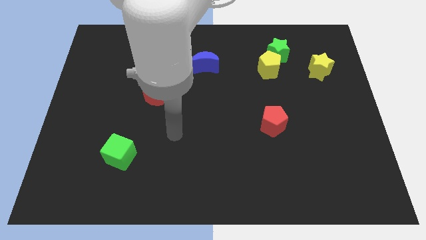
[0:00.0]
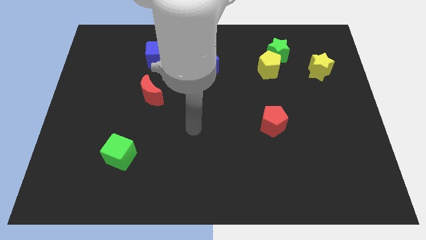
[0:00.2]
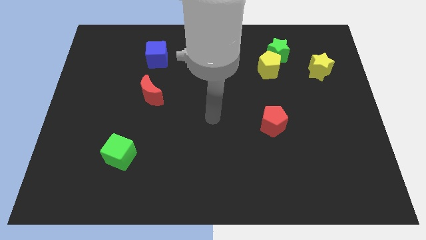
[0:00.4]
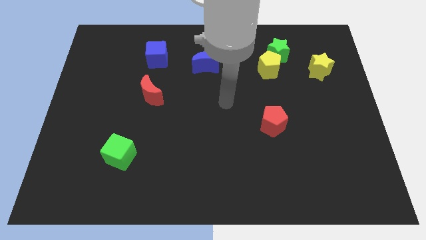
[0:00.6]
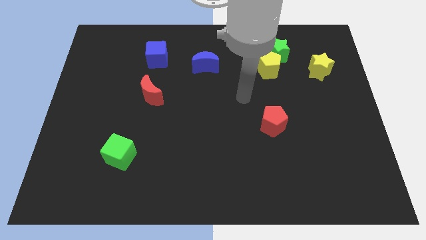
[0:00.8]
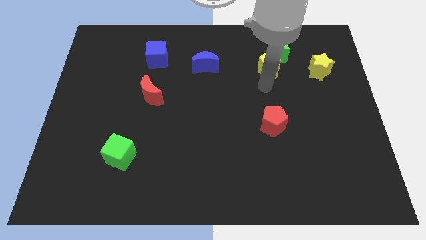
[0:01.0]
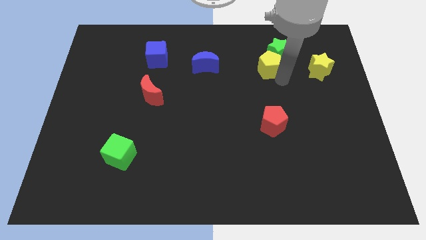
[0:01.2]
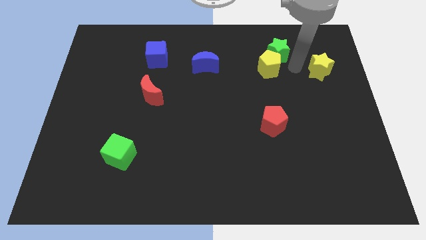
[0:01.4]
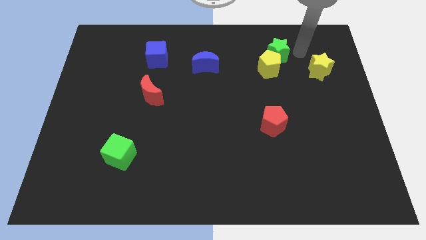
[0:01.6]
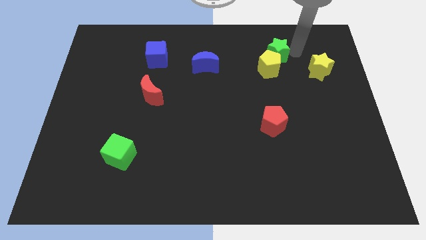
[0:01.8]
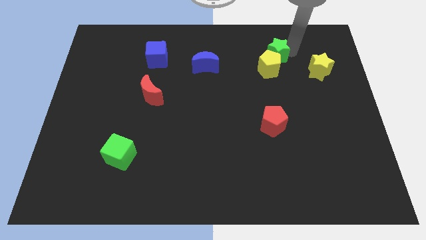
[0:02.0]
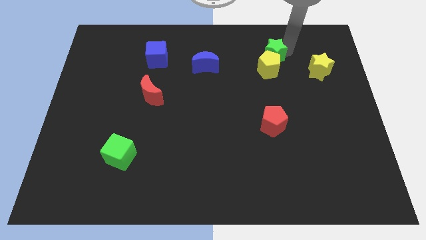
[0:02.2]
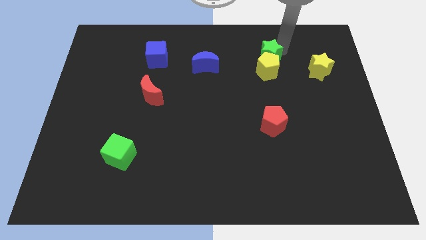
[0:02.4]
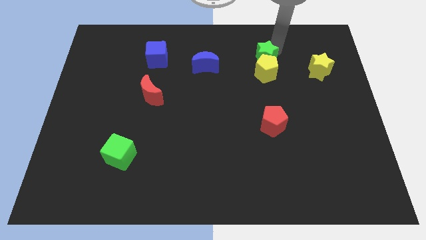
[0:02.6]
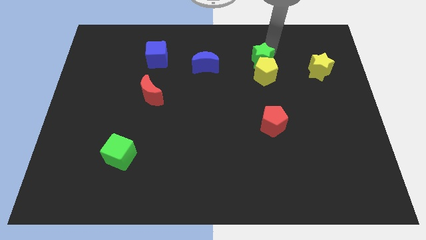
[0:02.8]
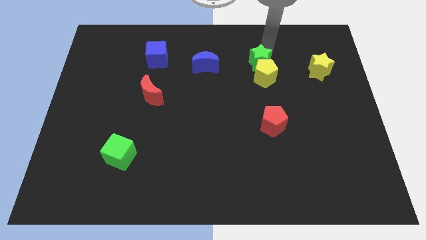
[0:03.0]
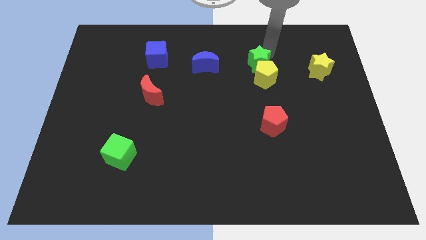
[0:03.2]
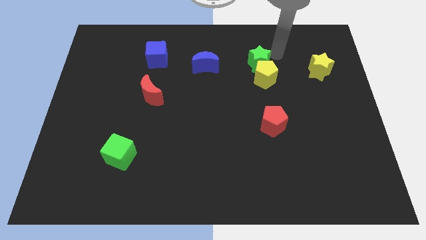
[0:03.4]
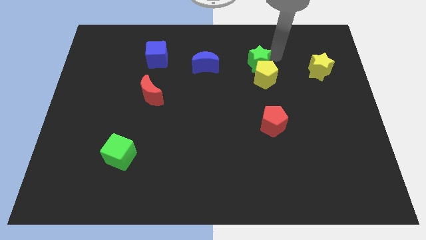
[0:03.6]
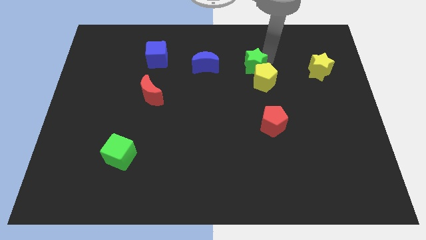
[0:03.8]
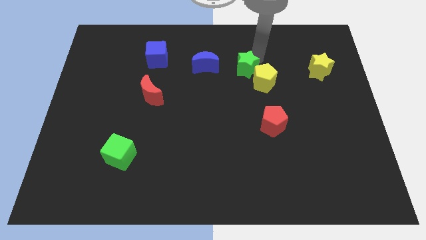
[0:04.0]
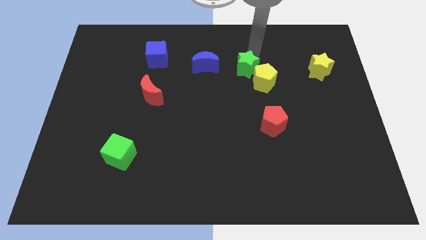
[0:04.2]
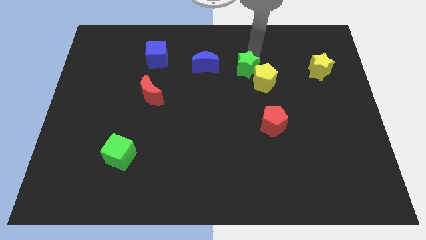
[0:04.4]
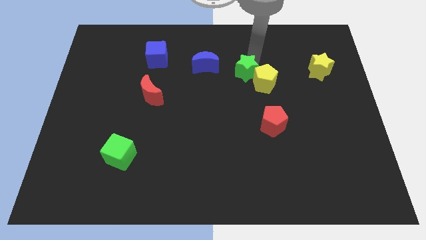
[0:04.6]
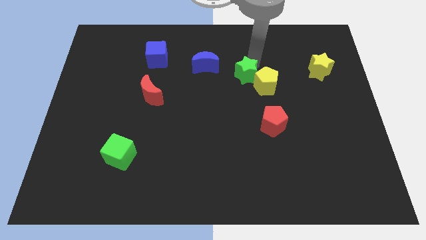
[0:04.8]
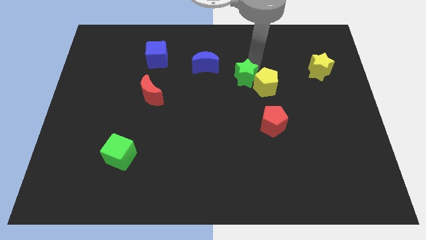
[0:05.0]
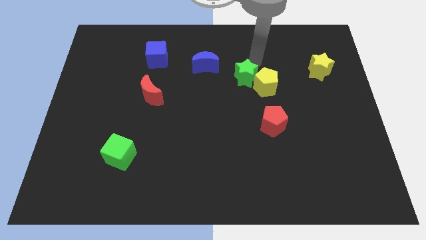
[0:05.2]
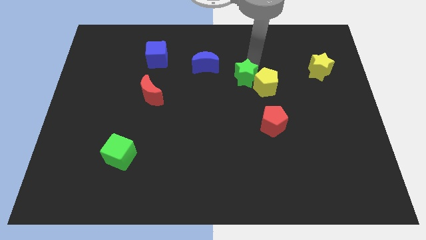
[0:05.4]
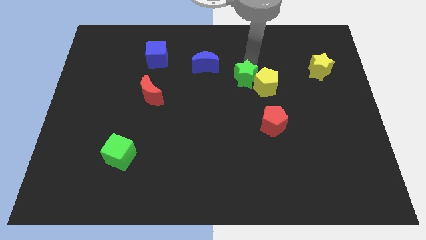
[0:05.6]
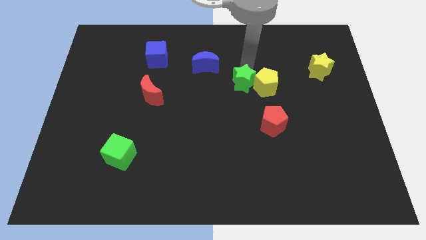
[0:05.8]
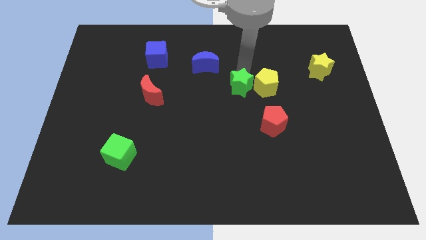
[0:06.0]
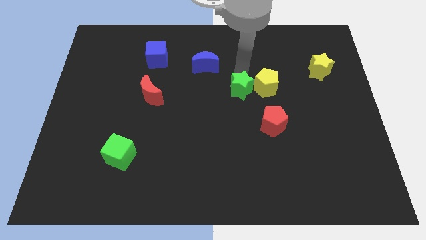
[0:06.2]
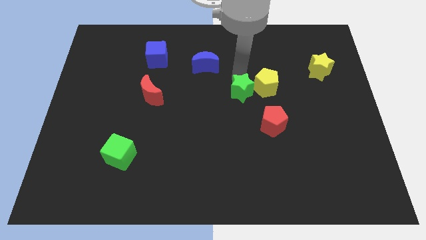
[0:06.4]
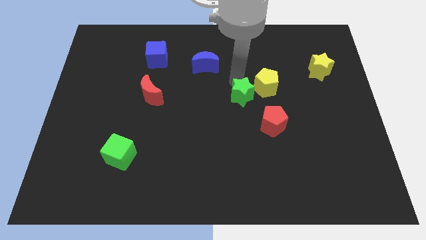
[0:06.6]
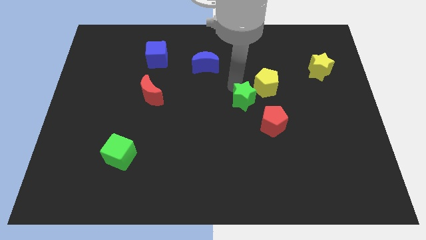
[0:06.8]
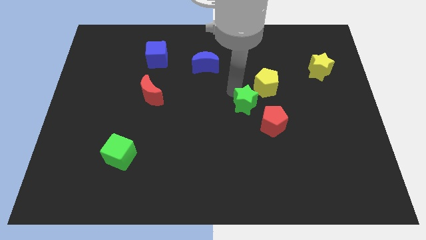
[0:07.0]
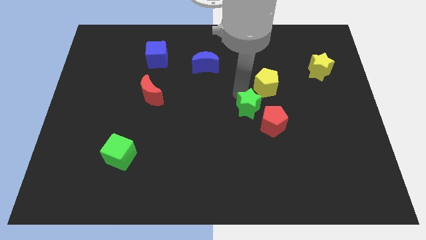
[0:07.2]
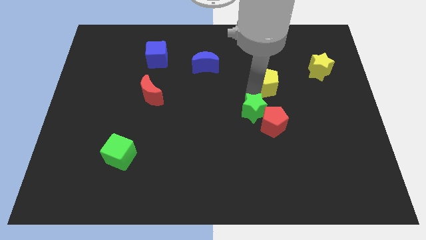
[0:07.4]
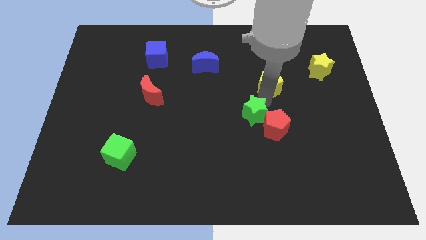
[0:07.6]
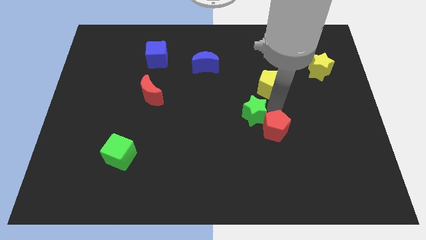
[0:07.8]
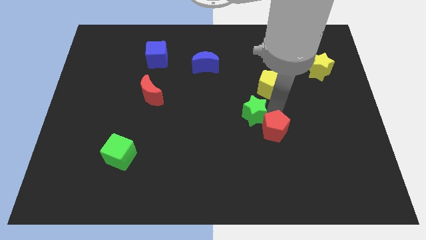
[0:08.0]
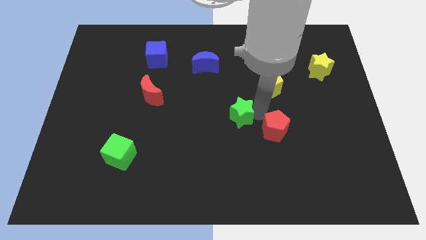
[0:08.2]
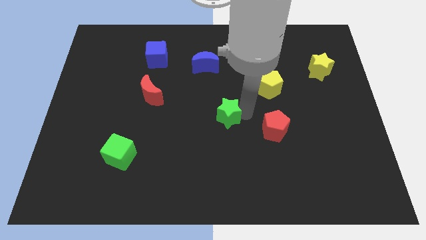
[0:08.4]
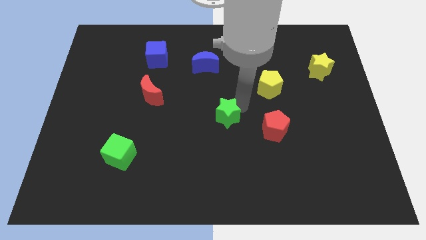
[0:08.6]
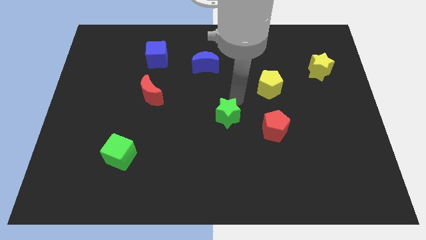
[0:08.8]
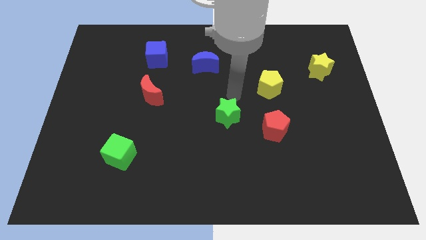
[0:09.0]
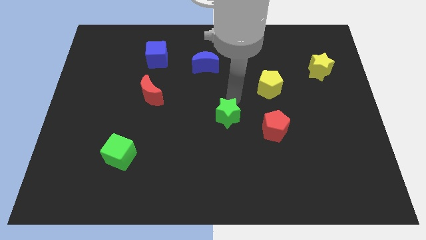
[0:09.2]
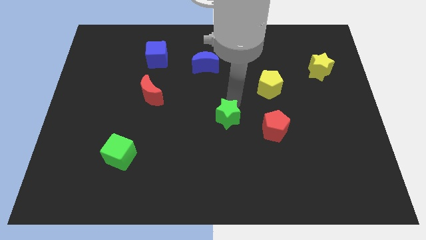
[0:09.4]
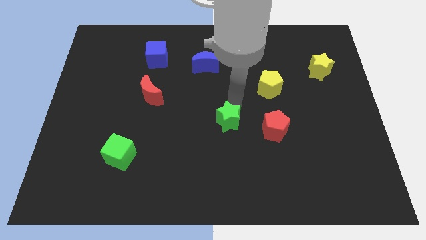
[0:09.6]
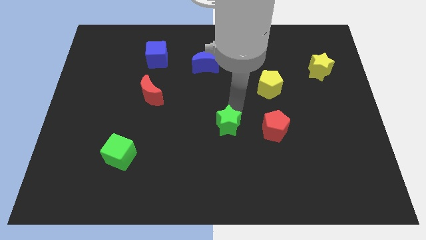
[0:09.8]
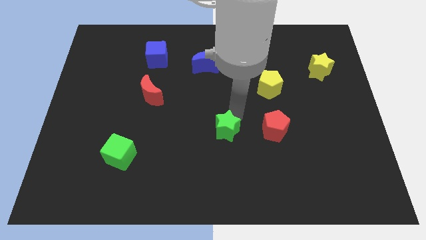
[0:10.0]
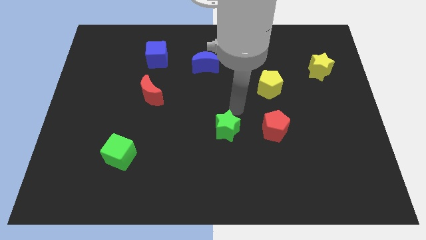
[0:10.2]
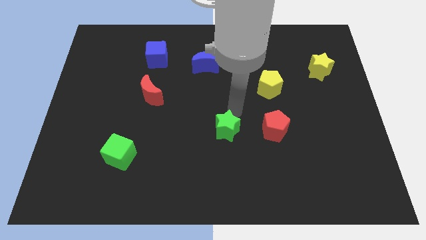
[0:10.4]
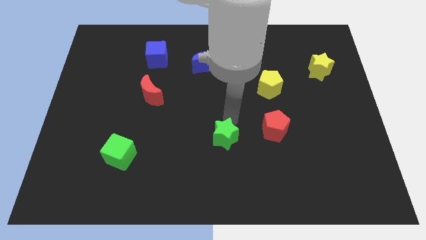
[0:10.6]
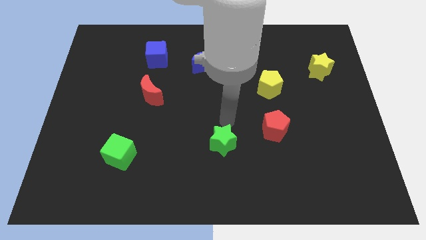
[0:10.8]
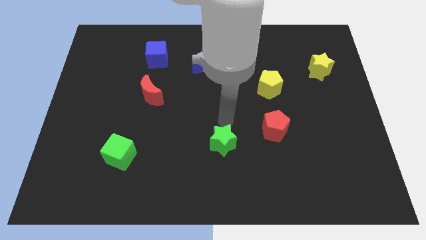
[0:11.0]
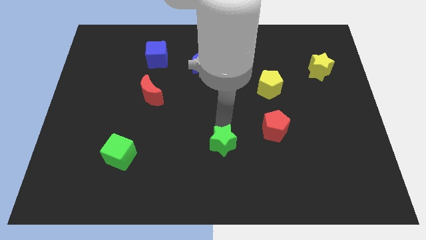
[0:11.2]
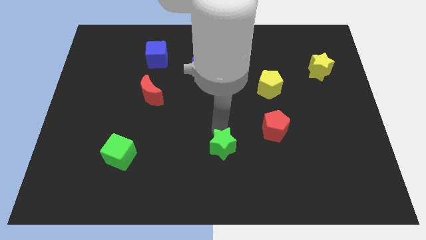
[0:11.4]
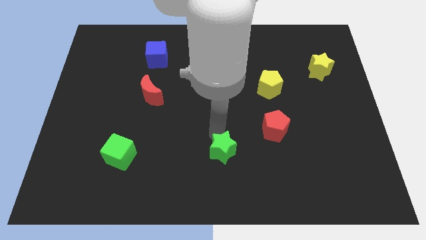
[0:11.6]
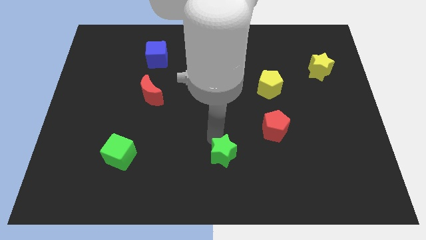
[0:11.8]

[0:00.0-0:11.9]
put the green star to the bottom side

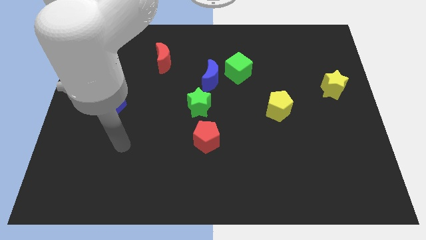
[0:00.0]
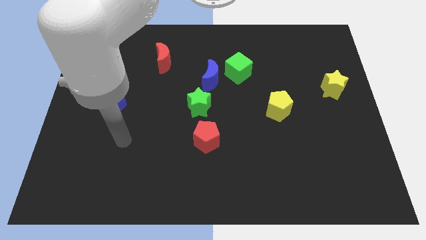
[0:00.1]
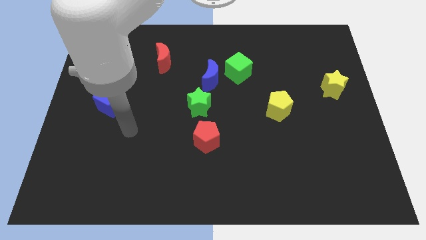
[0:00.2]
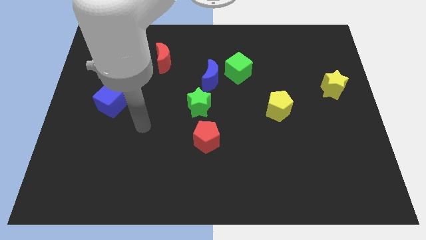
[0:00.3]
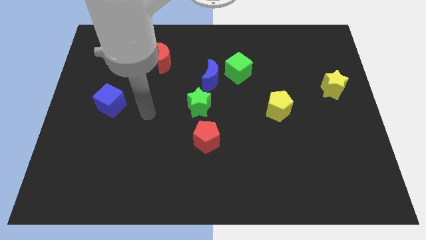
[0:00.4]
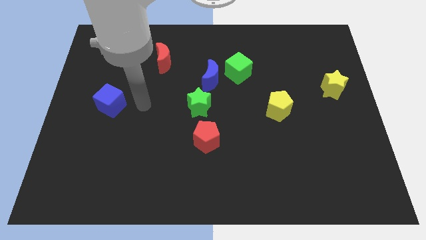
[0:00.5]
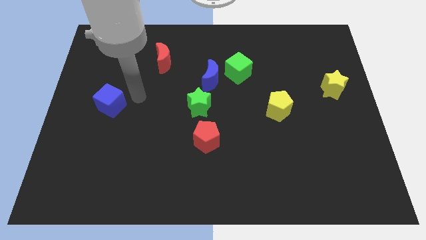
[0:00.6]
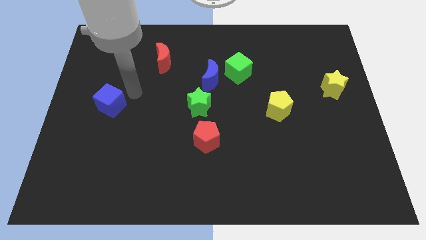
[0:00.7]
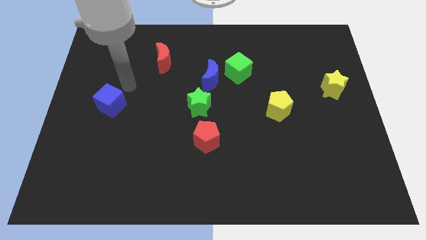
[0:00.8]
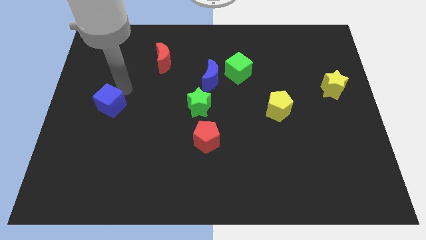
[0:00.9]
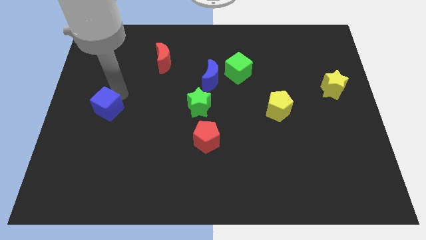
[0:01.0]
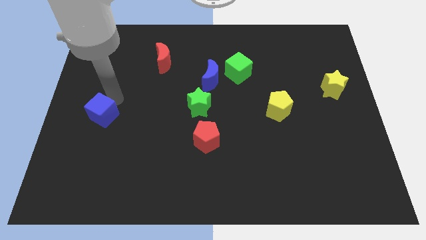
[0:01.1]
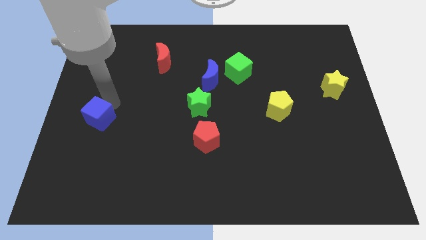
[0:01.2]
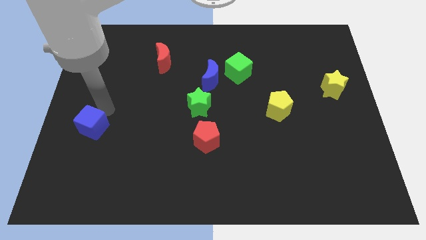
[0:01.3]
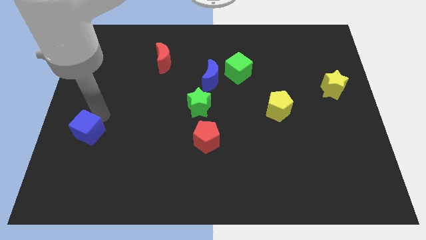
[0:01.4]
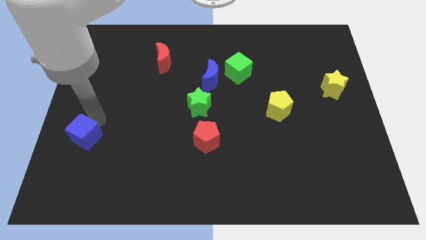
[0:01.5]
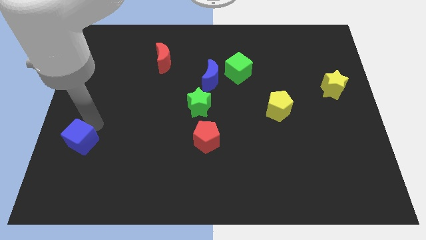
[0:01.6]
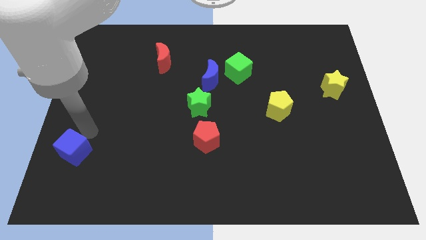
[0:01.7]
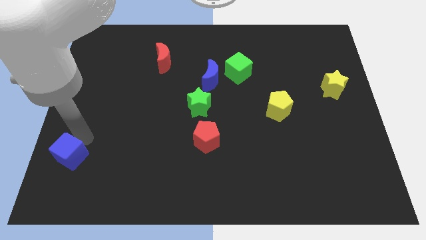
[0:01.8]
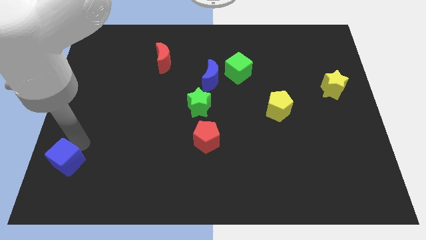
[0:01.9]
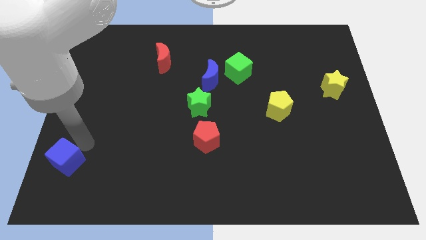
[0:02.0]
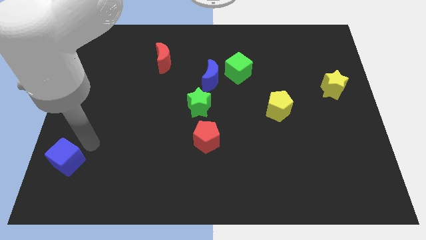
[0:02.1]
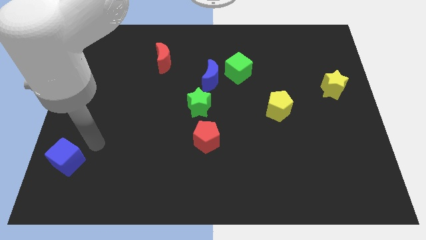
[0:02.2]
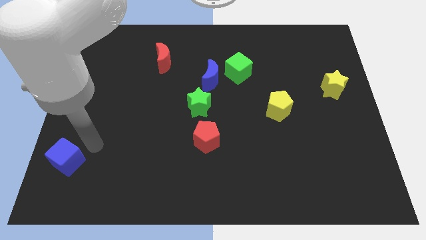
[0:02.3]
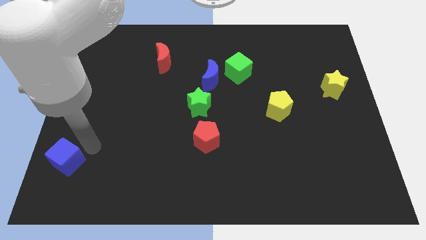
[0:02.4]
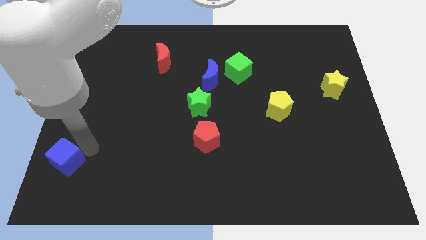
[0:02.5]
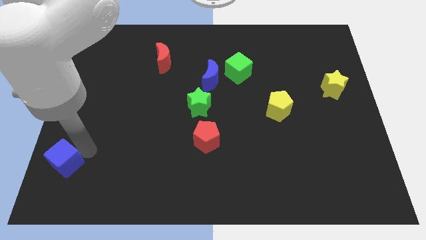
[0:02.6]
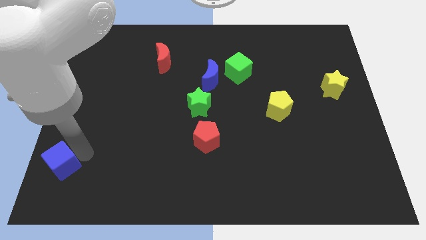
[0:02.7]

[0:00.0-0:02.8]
put the blue cube to the bottom left of the board
